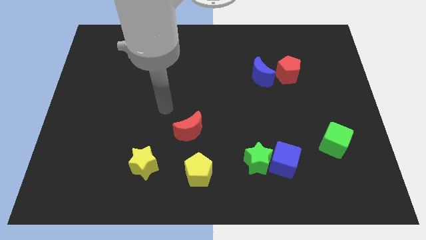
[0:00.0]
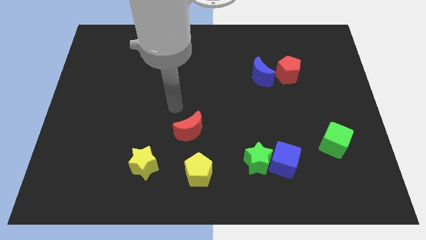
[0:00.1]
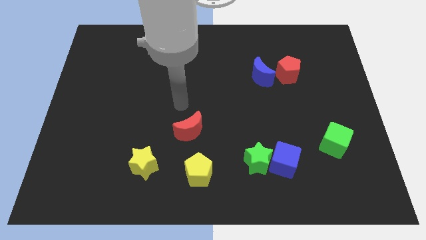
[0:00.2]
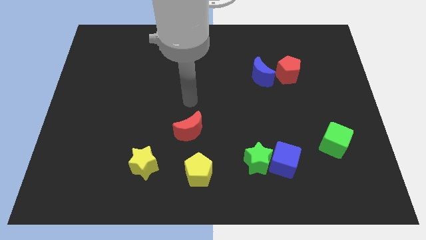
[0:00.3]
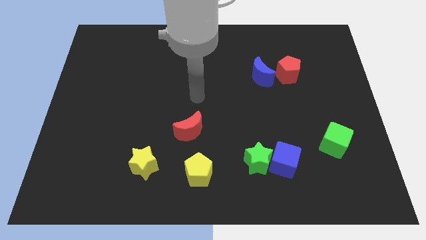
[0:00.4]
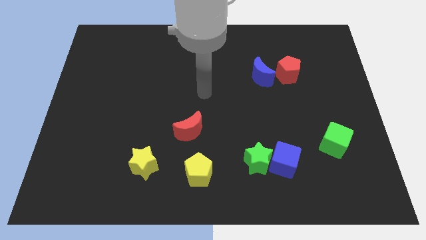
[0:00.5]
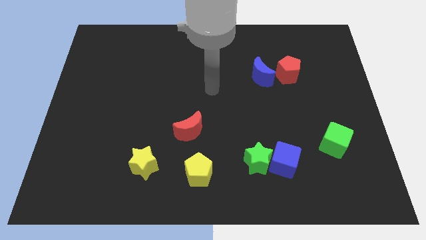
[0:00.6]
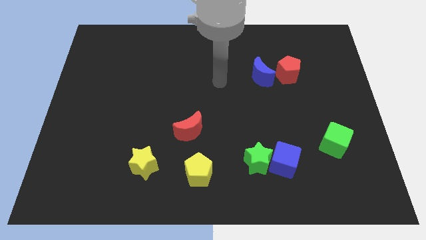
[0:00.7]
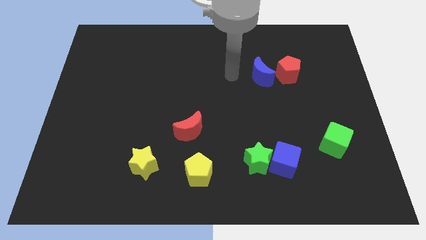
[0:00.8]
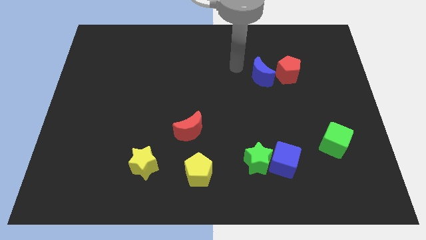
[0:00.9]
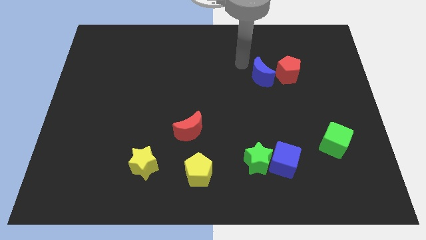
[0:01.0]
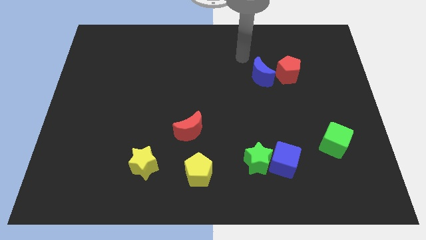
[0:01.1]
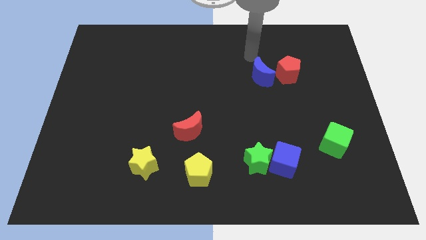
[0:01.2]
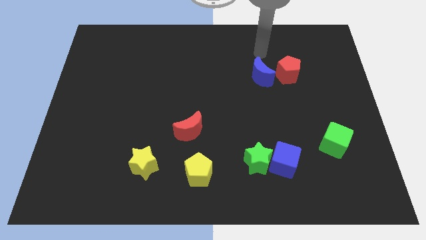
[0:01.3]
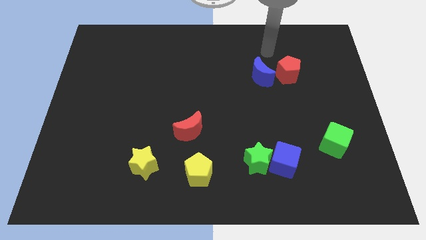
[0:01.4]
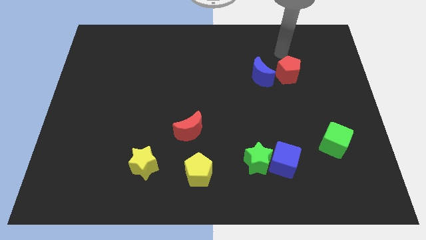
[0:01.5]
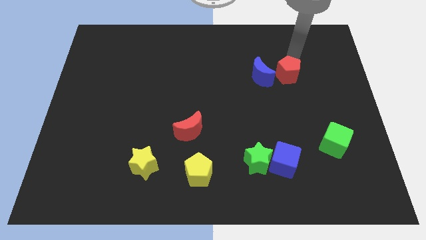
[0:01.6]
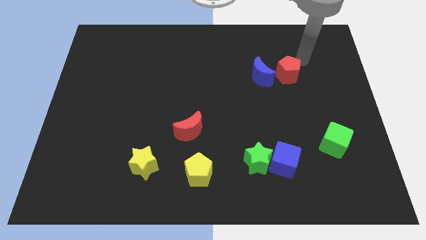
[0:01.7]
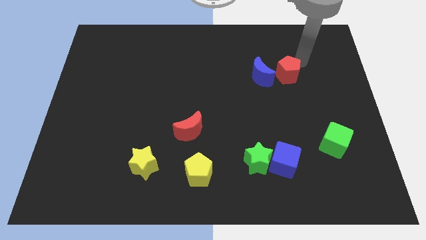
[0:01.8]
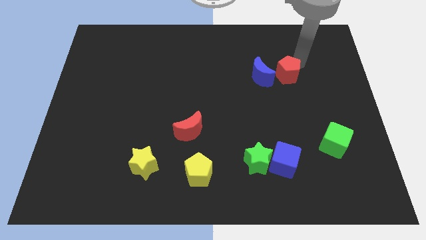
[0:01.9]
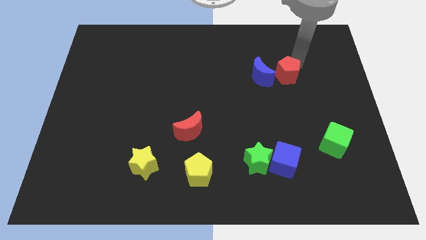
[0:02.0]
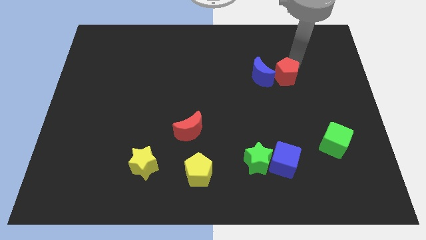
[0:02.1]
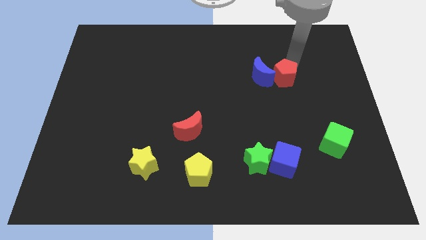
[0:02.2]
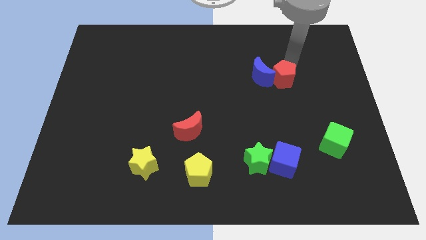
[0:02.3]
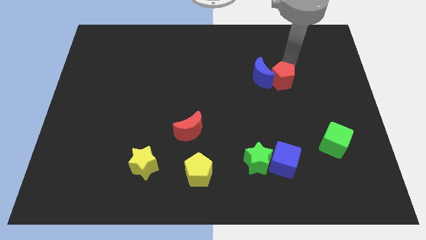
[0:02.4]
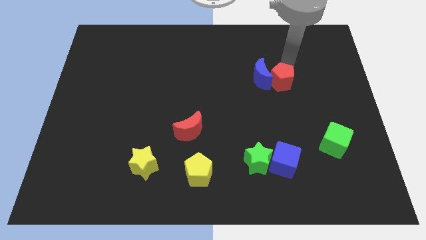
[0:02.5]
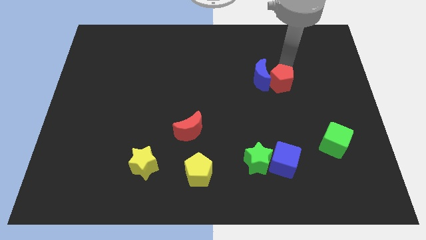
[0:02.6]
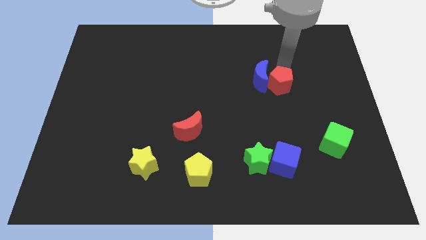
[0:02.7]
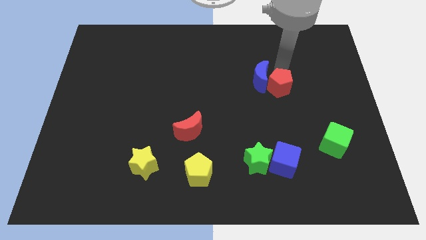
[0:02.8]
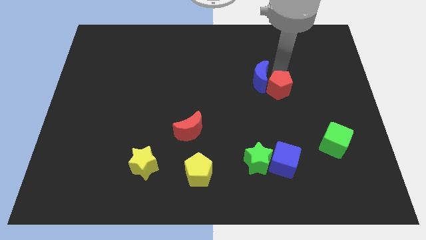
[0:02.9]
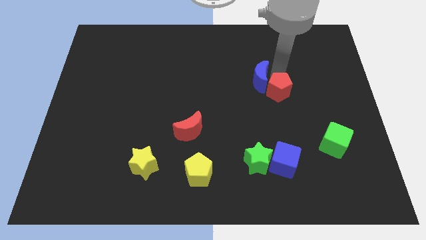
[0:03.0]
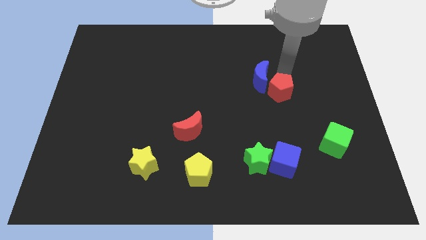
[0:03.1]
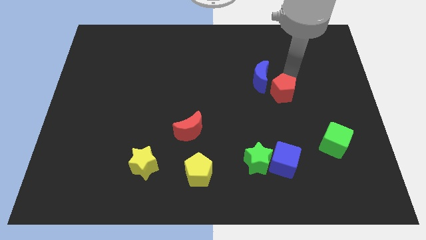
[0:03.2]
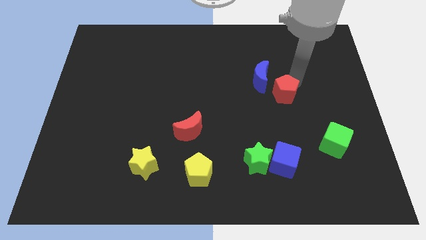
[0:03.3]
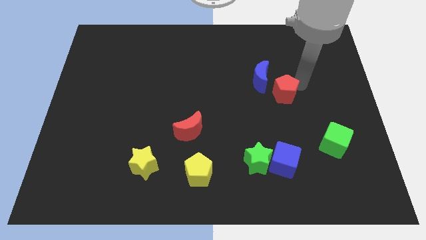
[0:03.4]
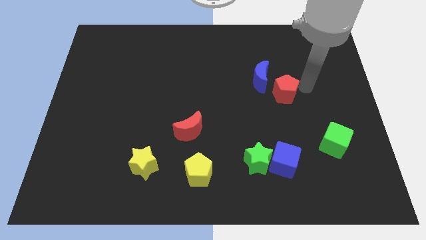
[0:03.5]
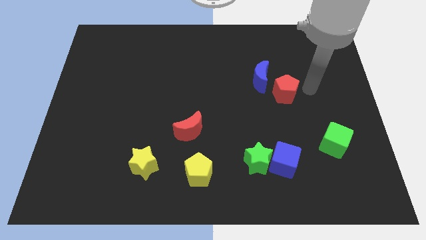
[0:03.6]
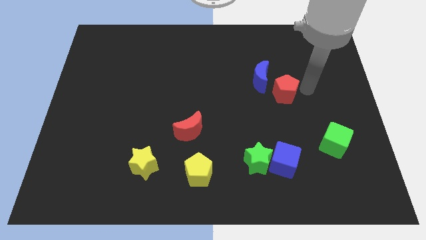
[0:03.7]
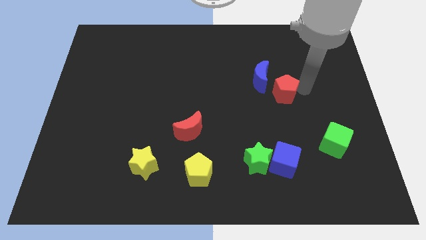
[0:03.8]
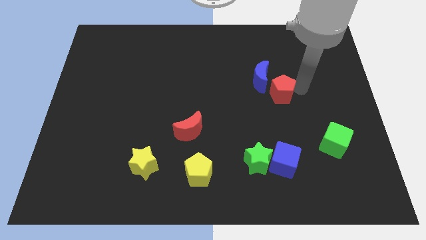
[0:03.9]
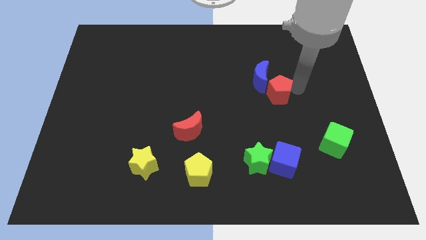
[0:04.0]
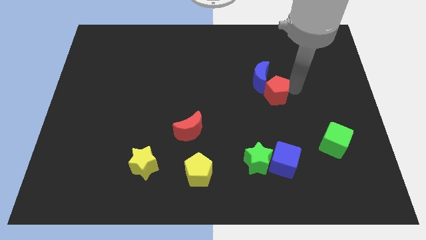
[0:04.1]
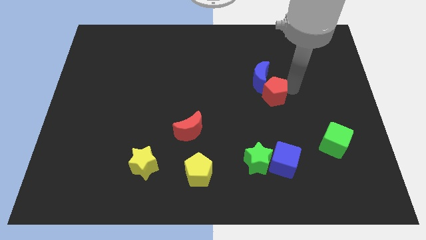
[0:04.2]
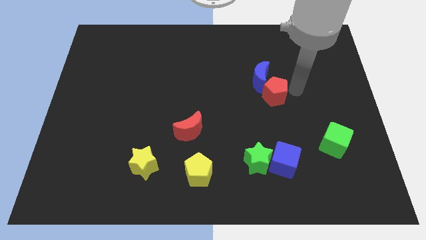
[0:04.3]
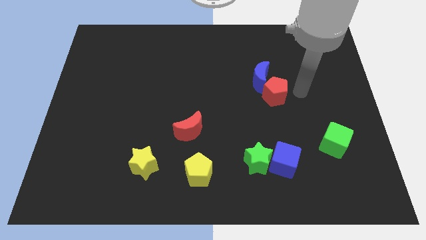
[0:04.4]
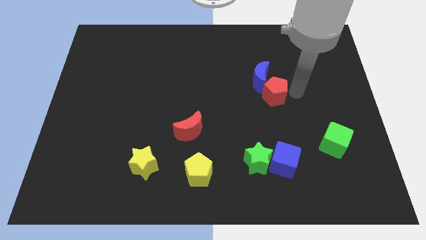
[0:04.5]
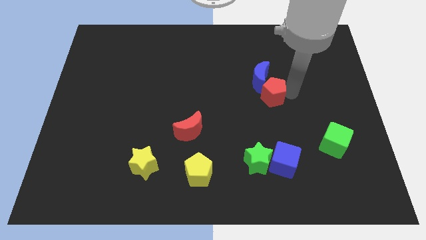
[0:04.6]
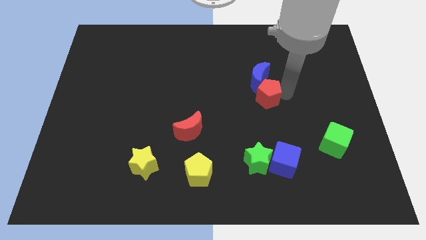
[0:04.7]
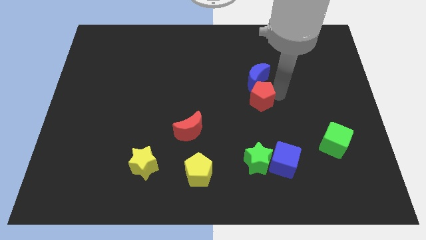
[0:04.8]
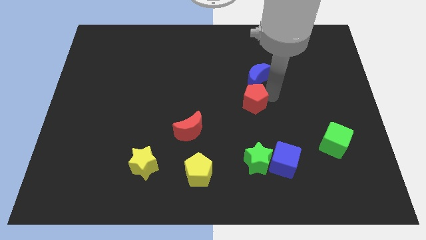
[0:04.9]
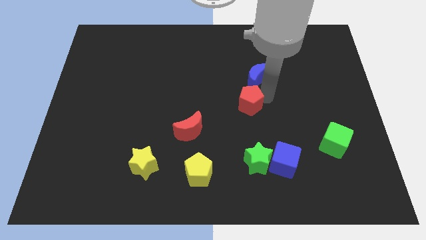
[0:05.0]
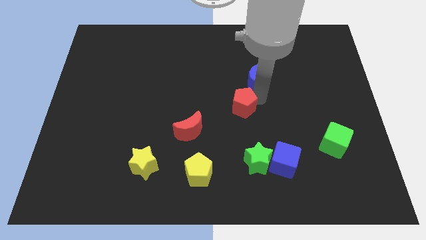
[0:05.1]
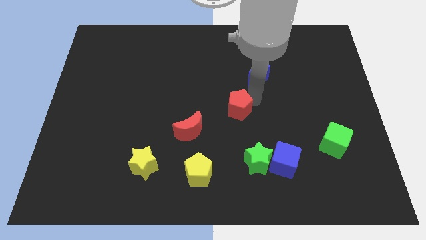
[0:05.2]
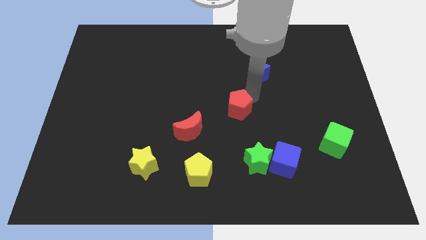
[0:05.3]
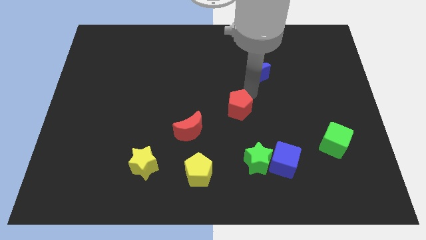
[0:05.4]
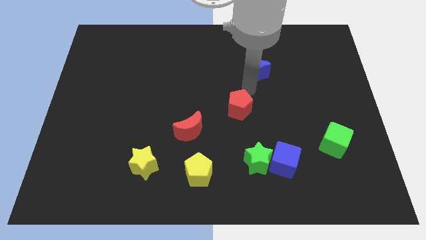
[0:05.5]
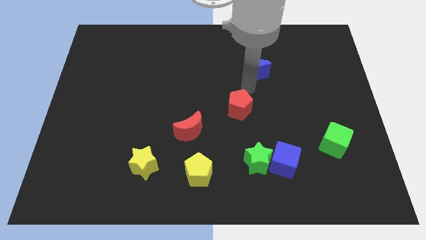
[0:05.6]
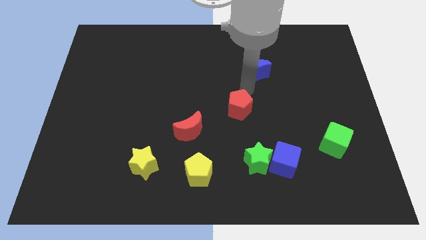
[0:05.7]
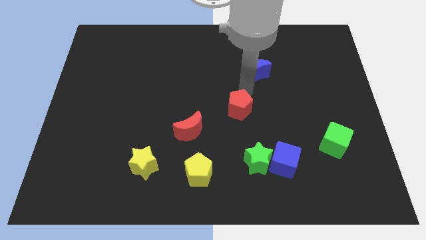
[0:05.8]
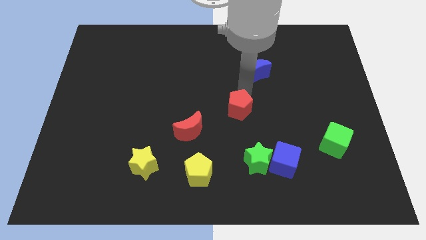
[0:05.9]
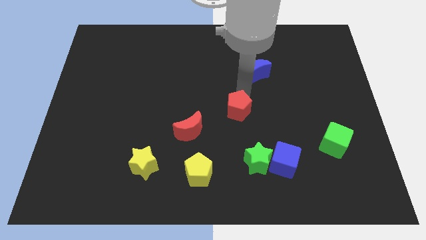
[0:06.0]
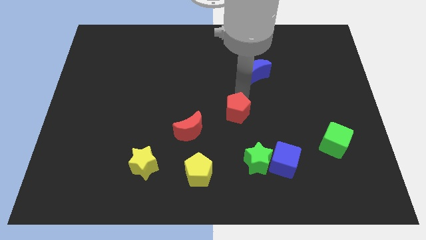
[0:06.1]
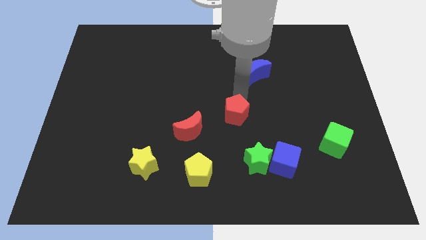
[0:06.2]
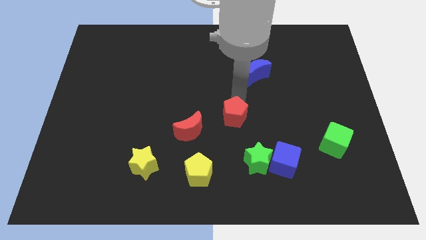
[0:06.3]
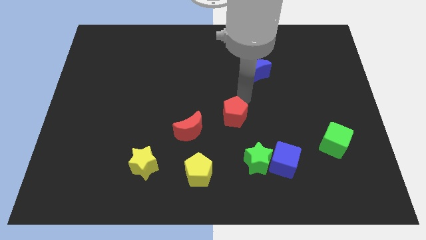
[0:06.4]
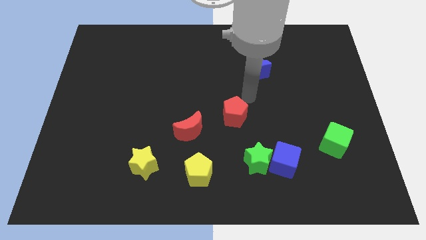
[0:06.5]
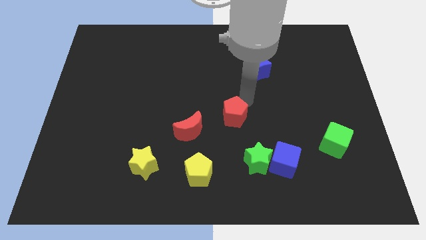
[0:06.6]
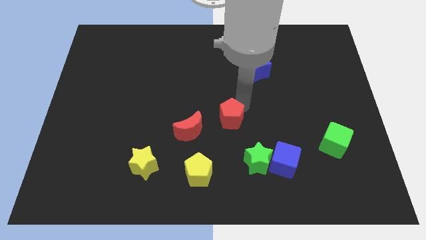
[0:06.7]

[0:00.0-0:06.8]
push the red pentagon down and left

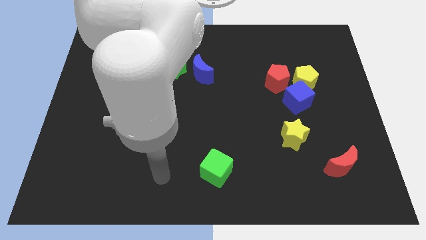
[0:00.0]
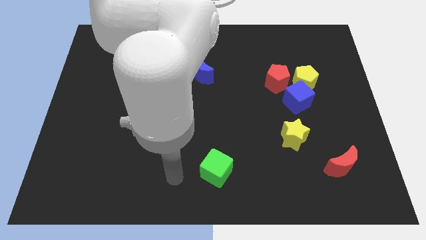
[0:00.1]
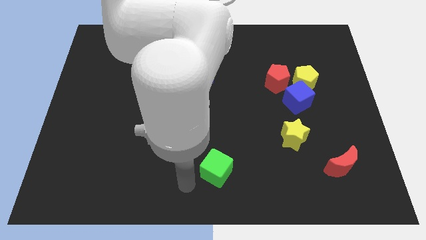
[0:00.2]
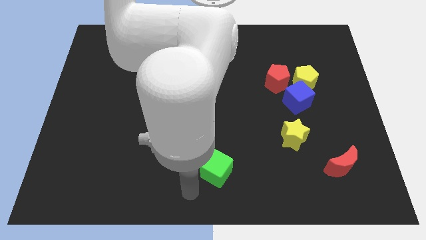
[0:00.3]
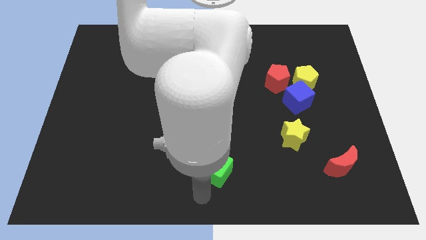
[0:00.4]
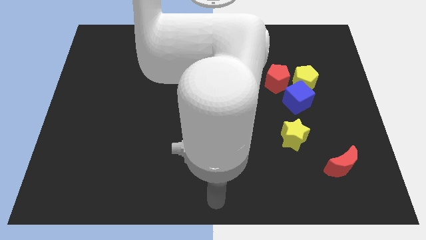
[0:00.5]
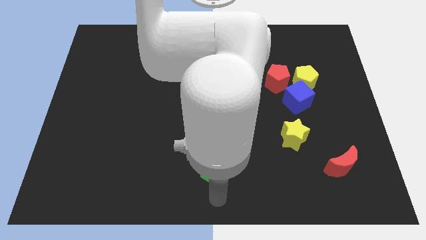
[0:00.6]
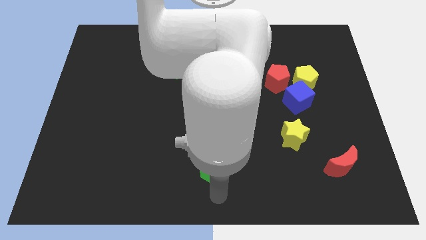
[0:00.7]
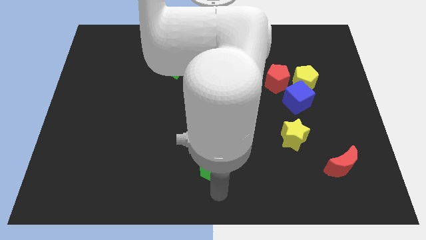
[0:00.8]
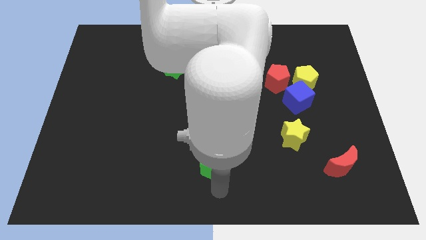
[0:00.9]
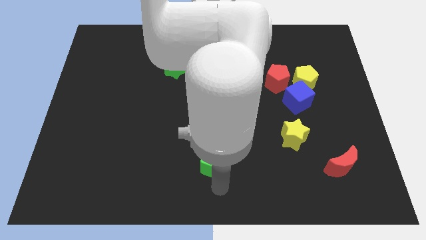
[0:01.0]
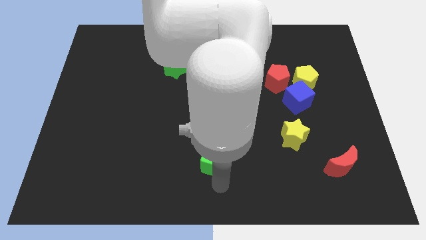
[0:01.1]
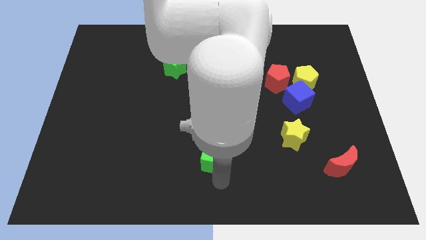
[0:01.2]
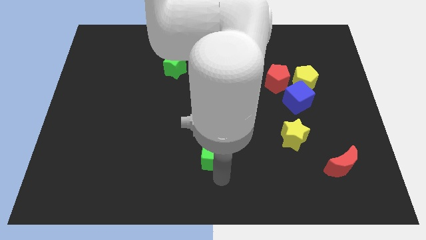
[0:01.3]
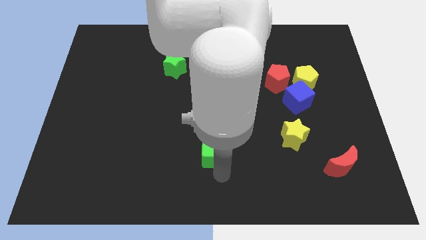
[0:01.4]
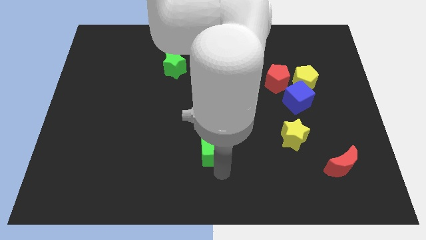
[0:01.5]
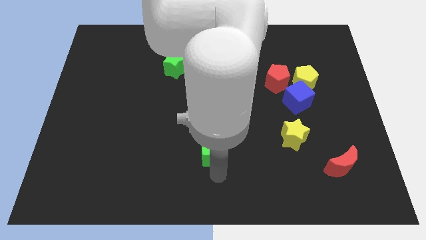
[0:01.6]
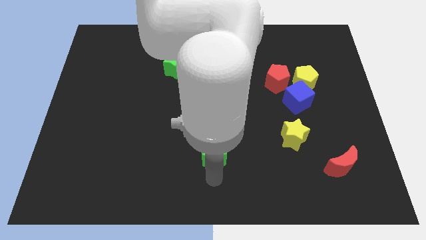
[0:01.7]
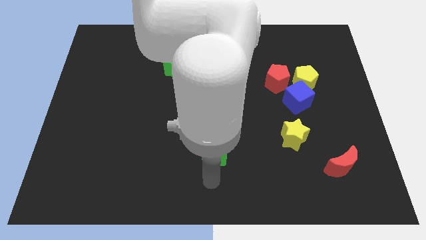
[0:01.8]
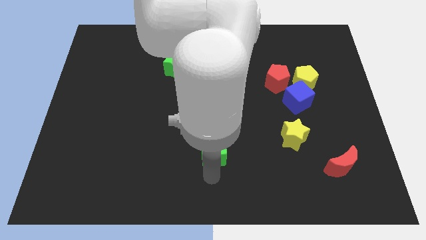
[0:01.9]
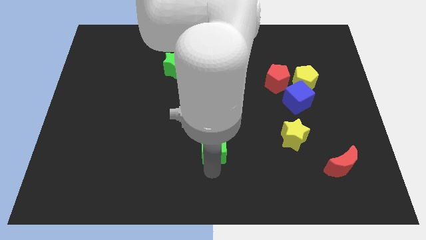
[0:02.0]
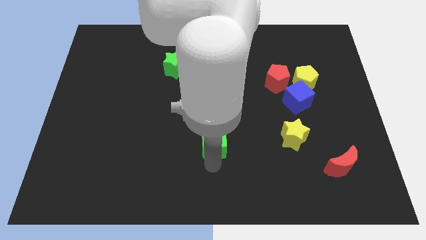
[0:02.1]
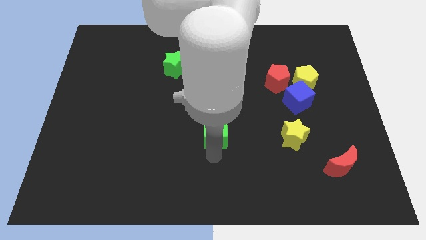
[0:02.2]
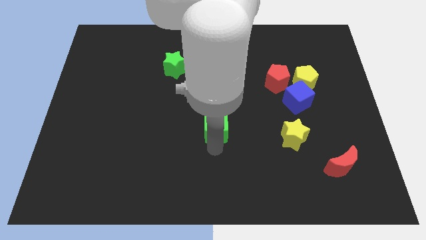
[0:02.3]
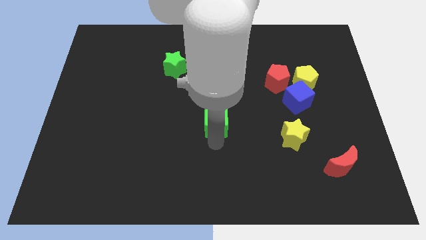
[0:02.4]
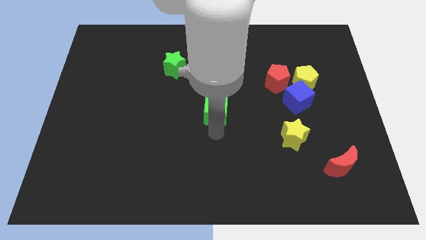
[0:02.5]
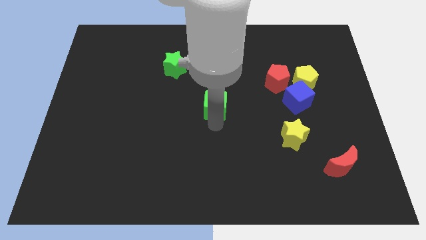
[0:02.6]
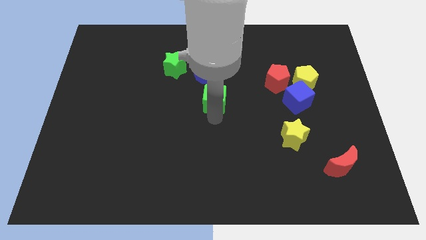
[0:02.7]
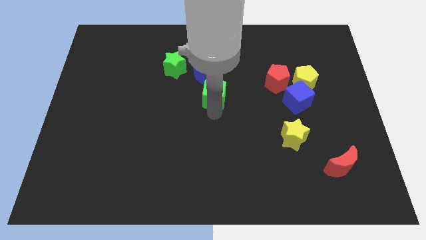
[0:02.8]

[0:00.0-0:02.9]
push the green cube upwards
